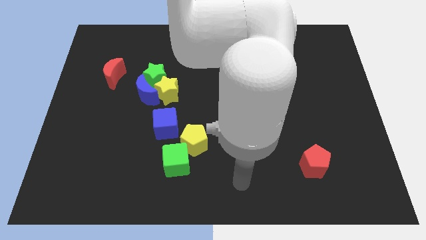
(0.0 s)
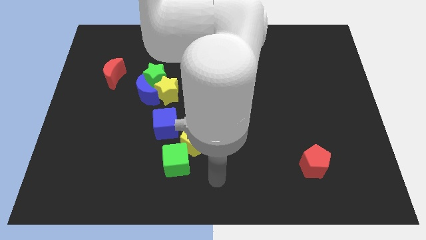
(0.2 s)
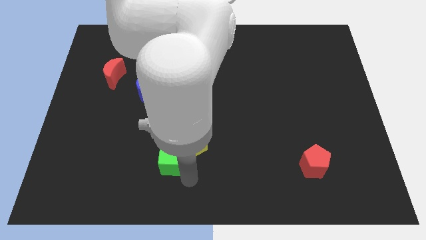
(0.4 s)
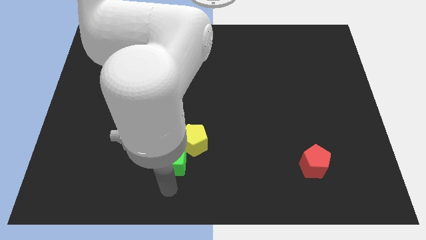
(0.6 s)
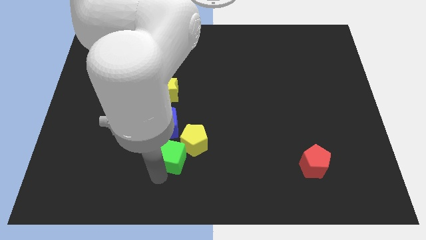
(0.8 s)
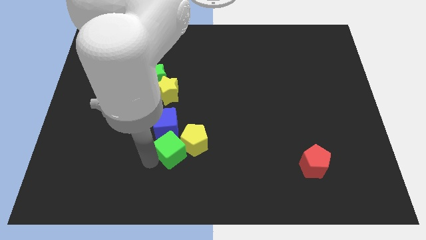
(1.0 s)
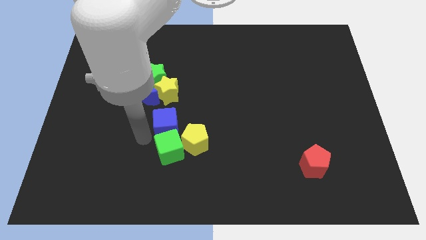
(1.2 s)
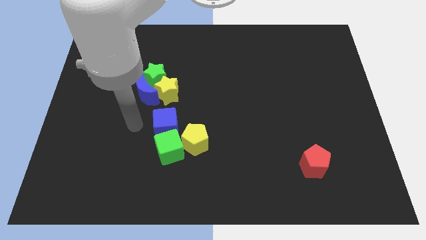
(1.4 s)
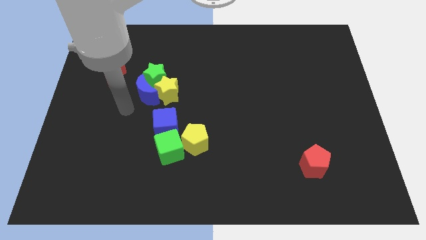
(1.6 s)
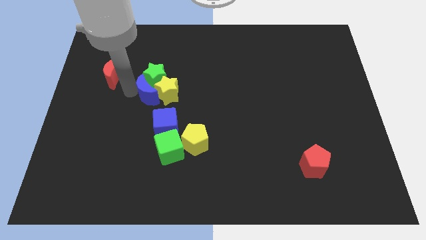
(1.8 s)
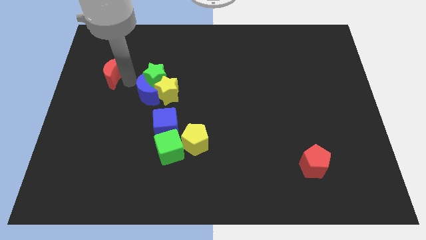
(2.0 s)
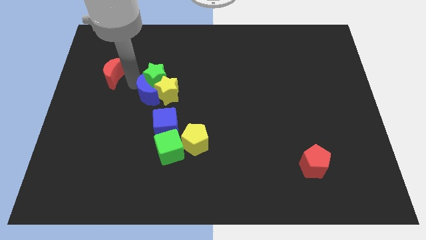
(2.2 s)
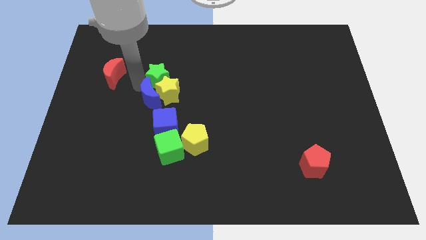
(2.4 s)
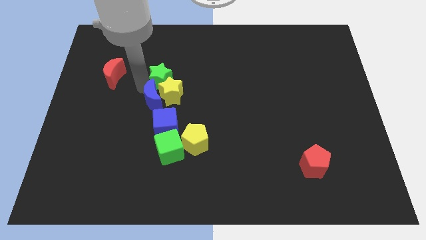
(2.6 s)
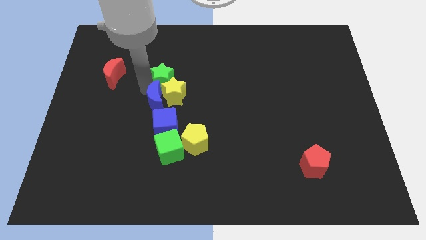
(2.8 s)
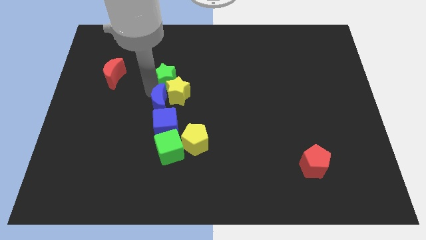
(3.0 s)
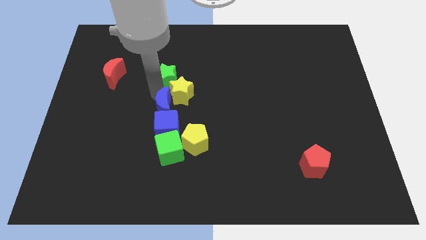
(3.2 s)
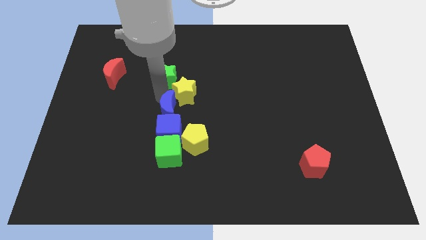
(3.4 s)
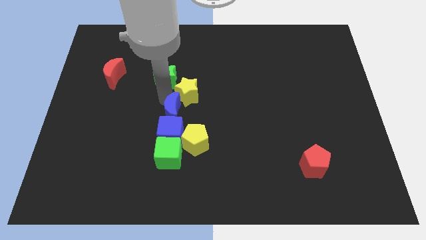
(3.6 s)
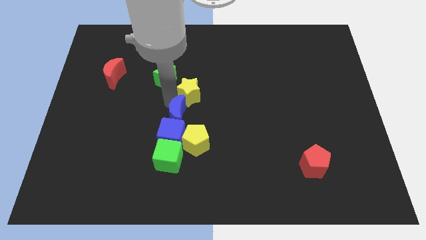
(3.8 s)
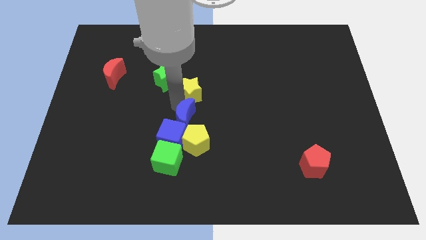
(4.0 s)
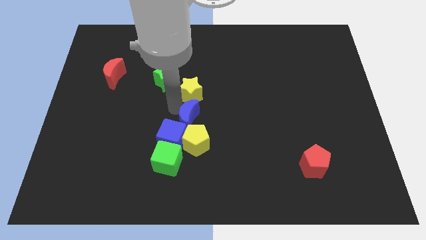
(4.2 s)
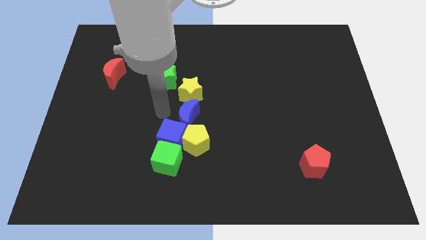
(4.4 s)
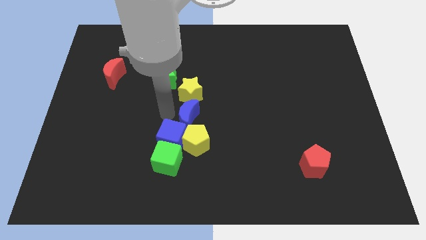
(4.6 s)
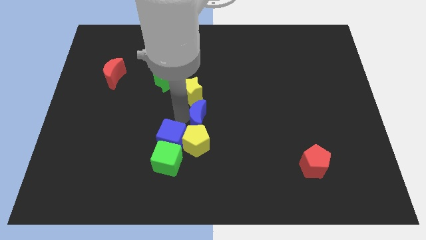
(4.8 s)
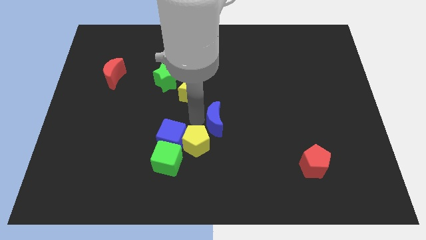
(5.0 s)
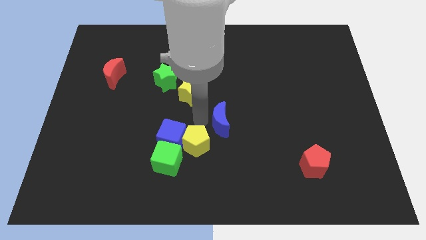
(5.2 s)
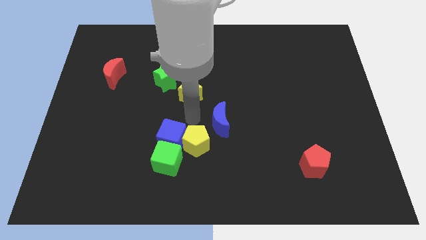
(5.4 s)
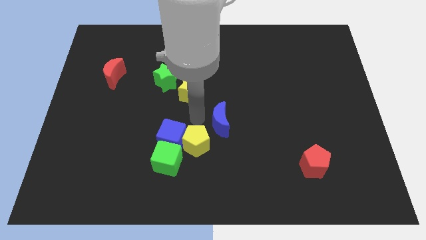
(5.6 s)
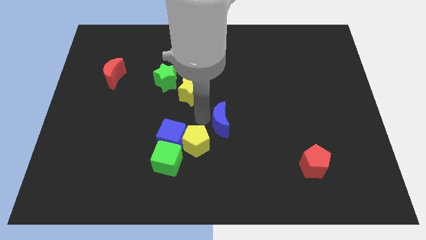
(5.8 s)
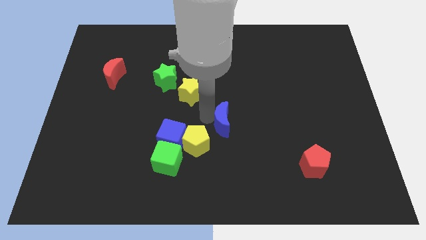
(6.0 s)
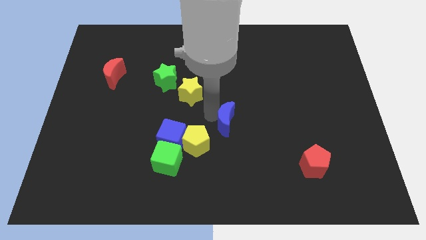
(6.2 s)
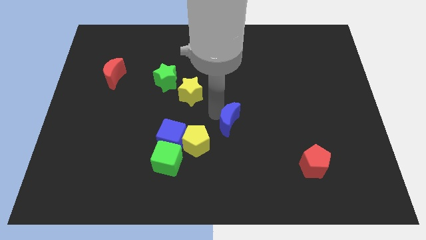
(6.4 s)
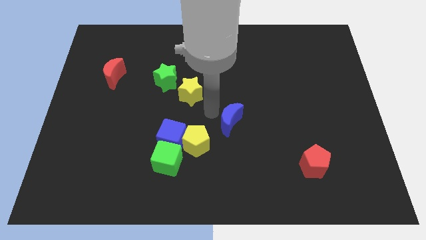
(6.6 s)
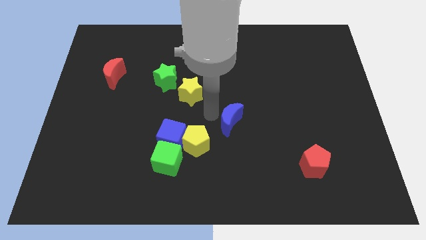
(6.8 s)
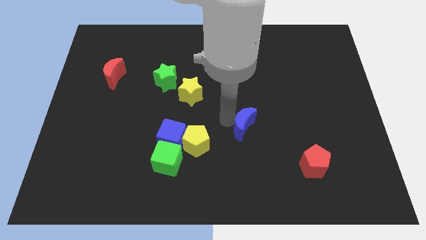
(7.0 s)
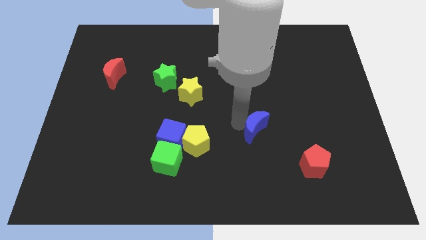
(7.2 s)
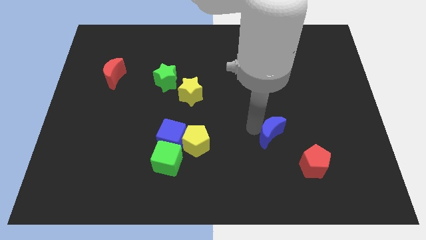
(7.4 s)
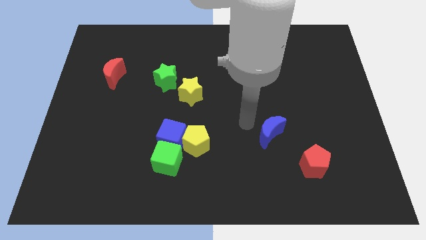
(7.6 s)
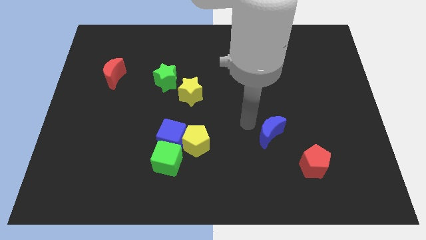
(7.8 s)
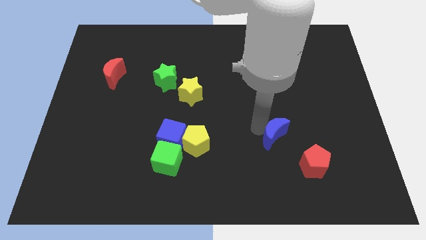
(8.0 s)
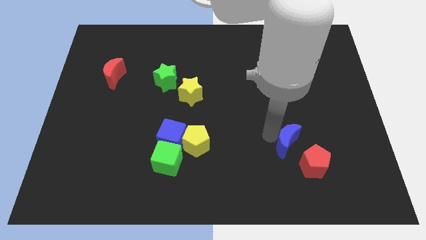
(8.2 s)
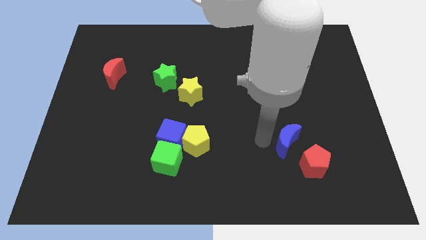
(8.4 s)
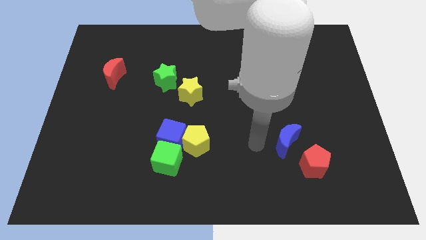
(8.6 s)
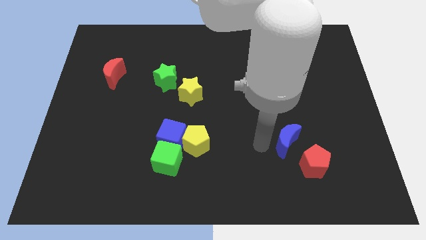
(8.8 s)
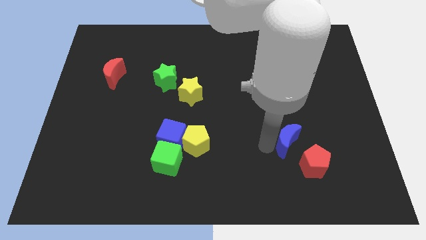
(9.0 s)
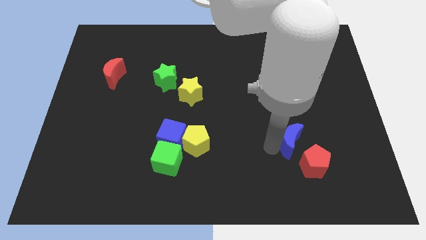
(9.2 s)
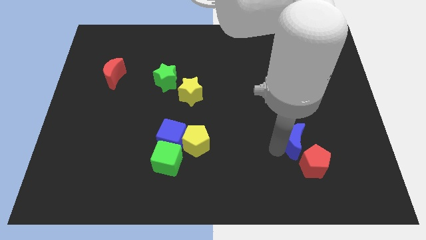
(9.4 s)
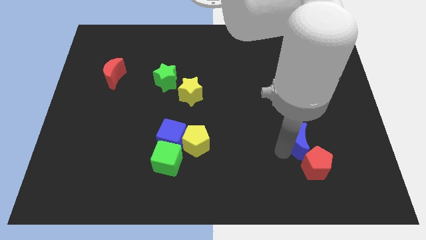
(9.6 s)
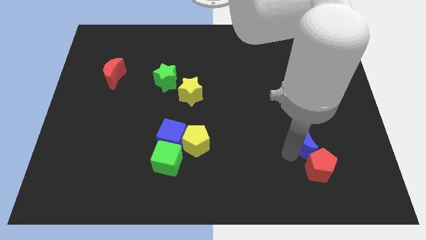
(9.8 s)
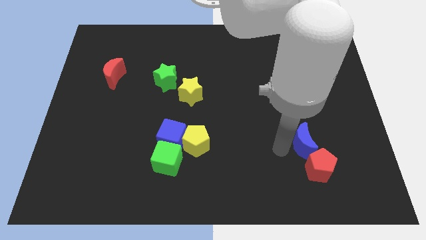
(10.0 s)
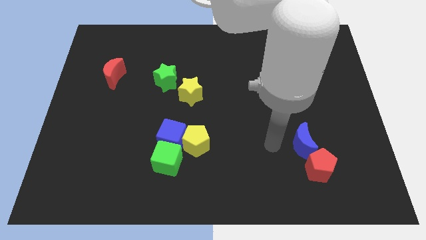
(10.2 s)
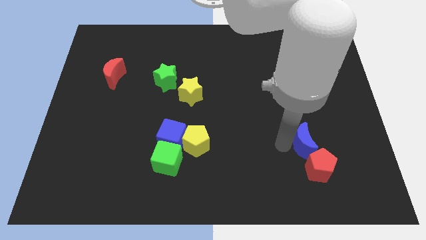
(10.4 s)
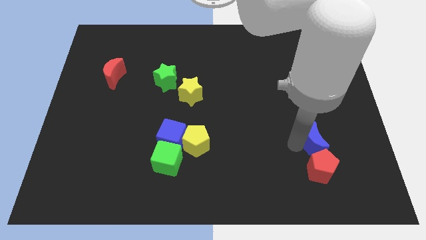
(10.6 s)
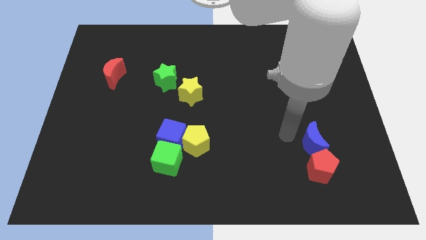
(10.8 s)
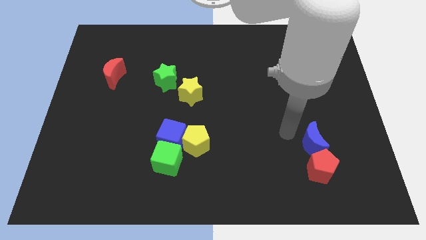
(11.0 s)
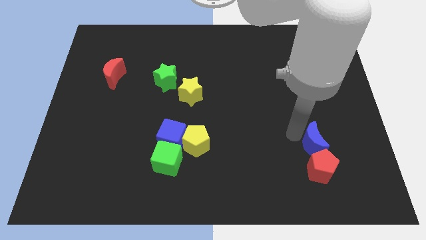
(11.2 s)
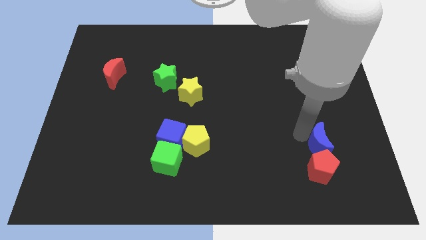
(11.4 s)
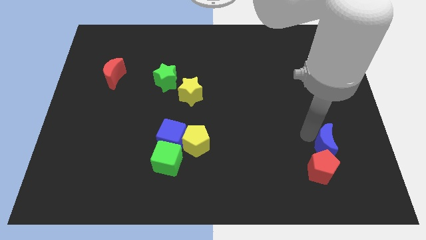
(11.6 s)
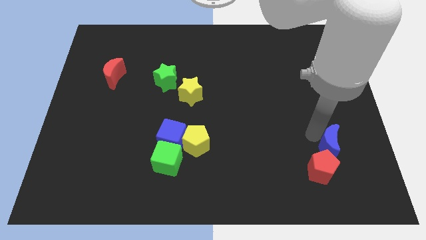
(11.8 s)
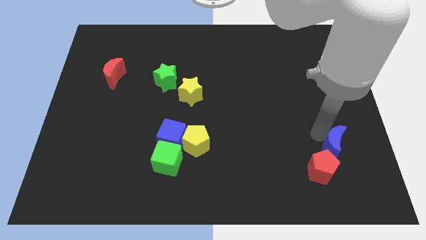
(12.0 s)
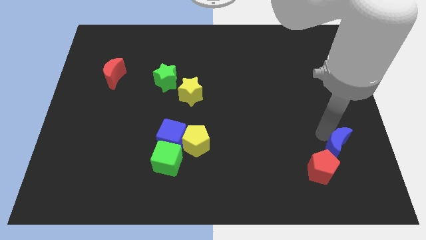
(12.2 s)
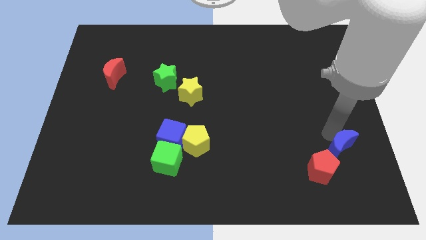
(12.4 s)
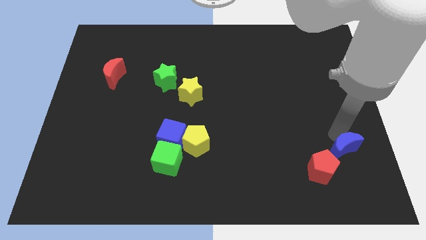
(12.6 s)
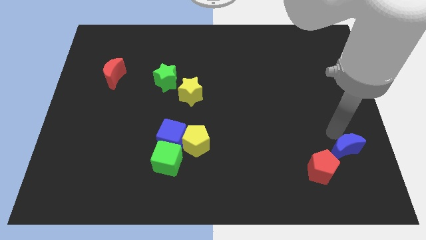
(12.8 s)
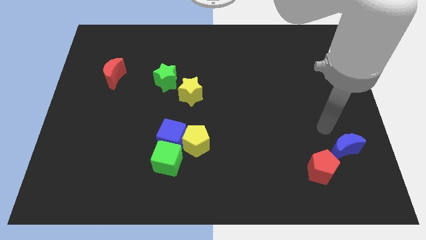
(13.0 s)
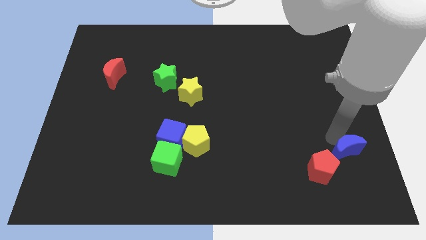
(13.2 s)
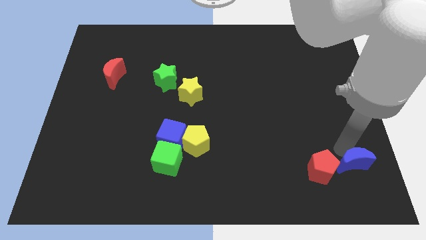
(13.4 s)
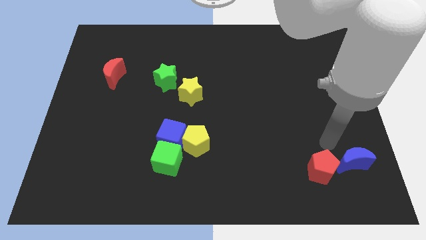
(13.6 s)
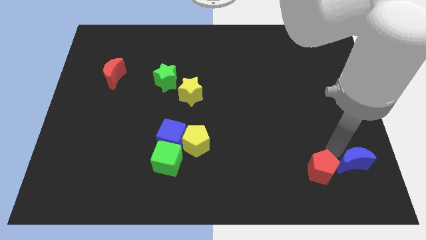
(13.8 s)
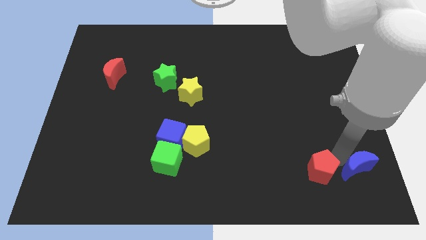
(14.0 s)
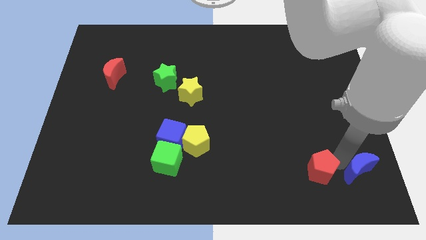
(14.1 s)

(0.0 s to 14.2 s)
push the blue moon to the bottom right
